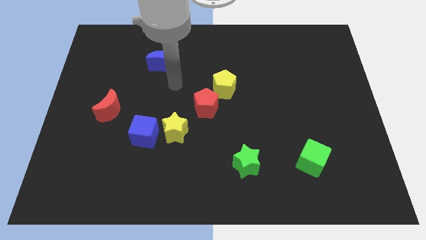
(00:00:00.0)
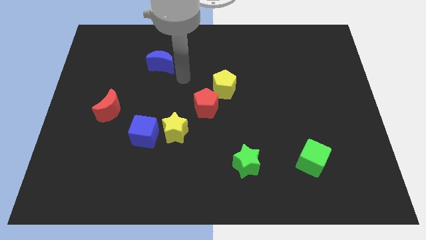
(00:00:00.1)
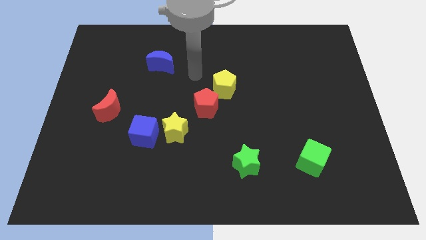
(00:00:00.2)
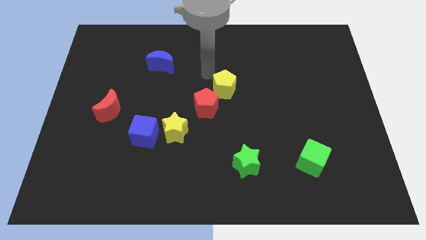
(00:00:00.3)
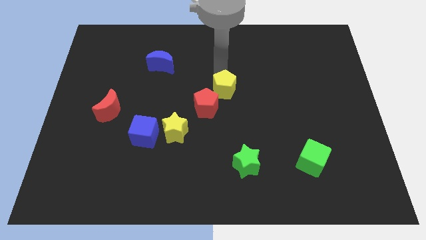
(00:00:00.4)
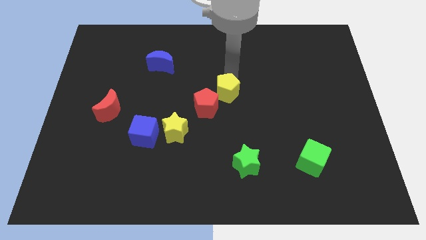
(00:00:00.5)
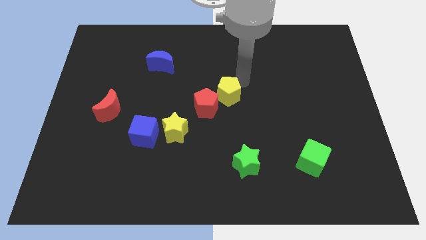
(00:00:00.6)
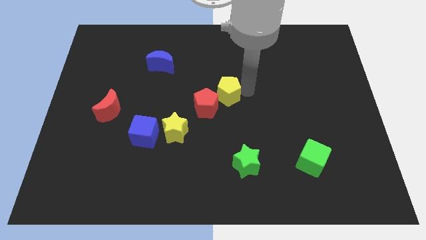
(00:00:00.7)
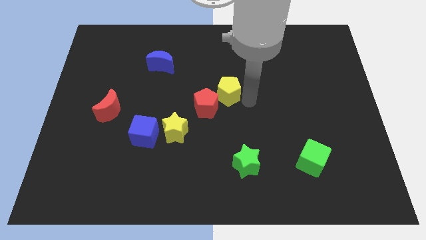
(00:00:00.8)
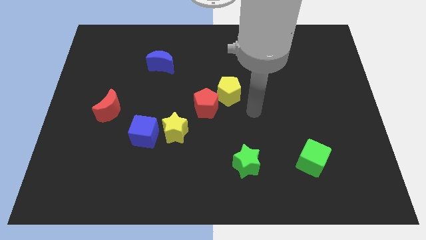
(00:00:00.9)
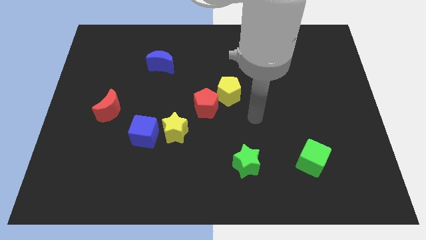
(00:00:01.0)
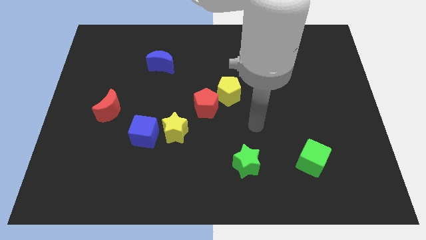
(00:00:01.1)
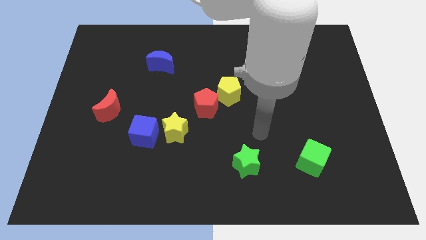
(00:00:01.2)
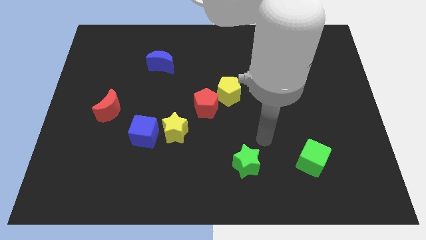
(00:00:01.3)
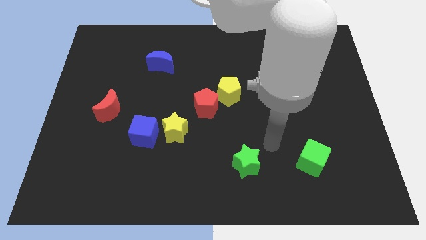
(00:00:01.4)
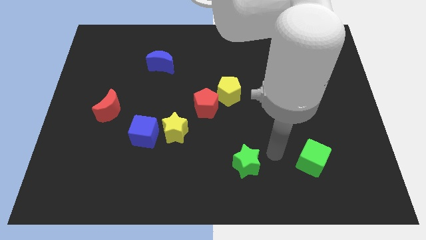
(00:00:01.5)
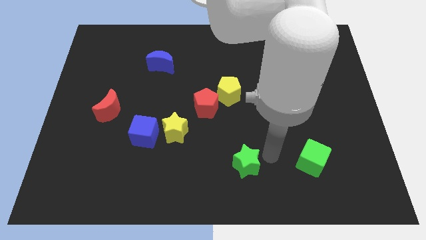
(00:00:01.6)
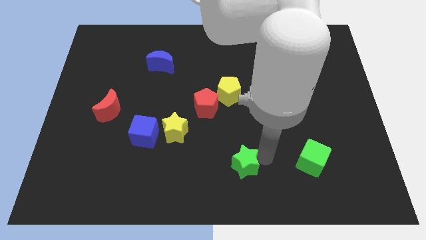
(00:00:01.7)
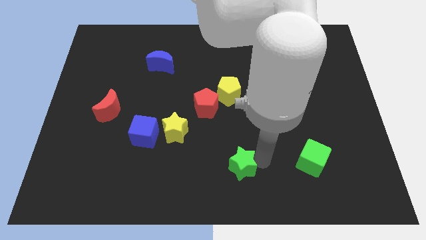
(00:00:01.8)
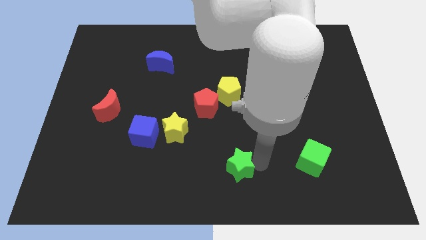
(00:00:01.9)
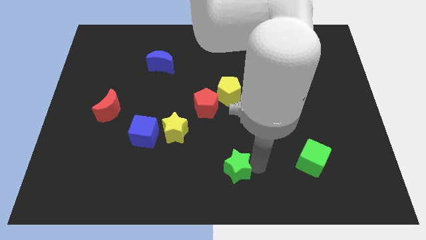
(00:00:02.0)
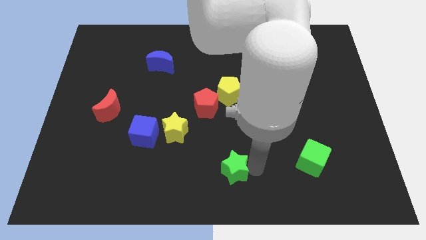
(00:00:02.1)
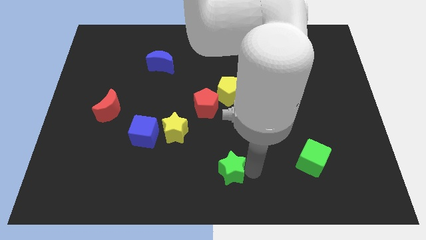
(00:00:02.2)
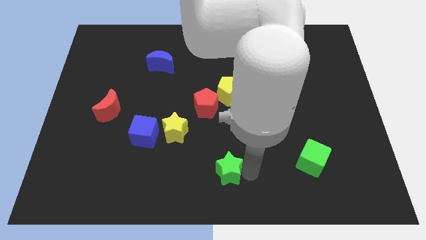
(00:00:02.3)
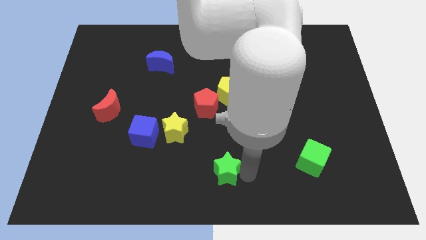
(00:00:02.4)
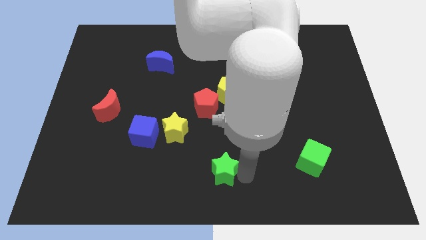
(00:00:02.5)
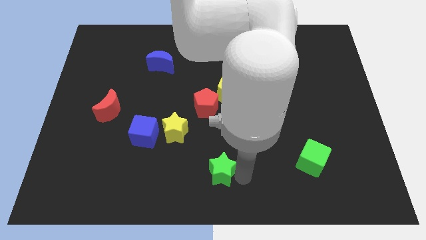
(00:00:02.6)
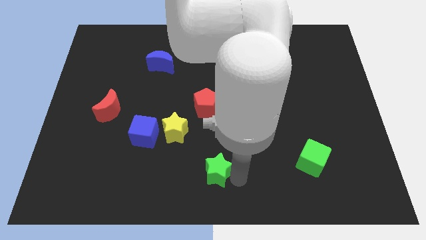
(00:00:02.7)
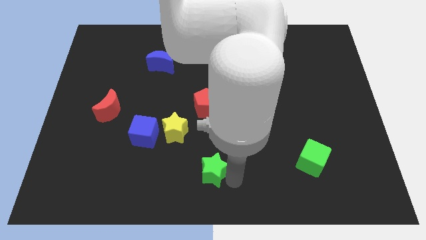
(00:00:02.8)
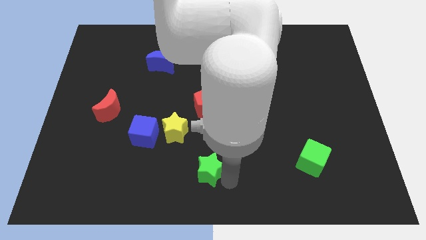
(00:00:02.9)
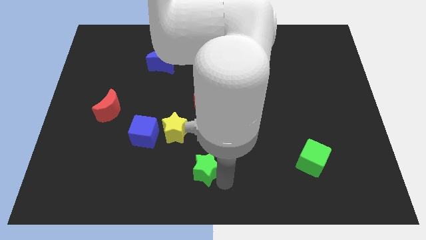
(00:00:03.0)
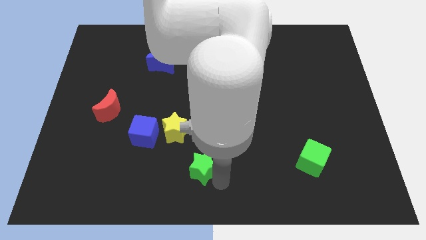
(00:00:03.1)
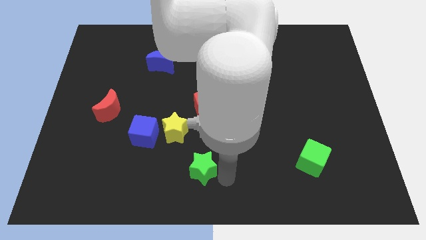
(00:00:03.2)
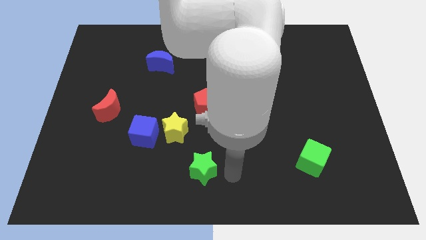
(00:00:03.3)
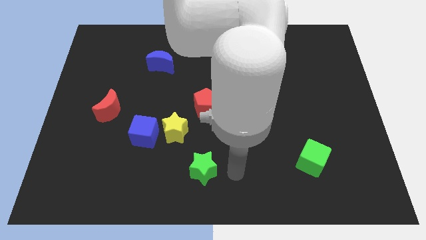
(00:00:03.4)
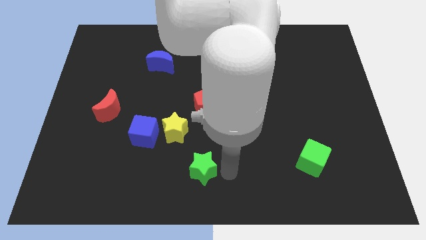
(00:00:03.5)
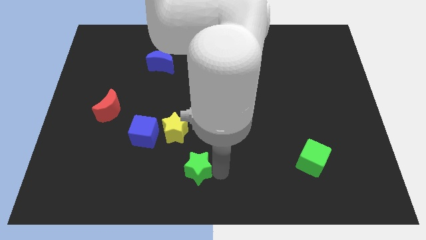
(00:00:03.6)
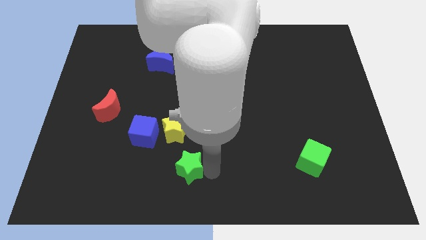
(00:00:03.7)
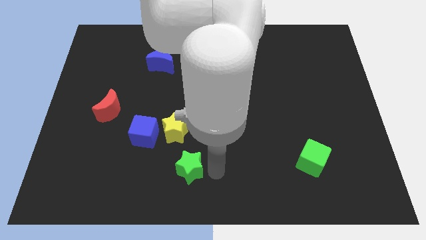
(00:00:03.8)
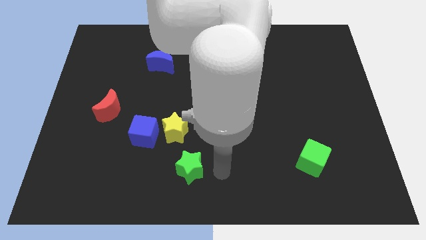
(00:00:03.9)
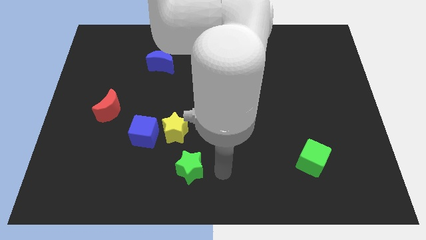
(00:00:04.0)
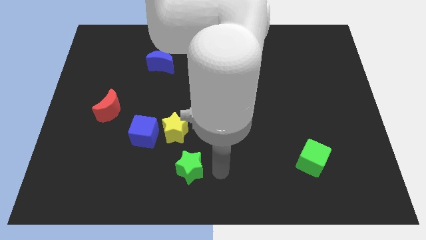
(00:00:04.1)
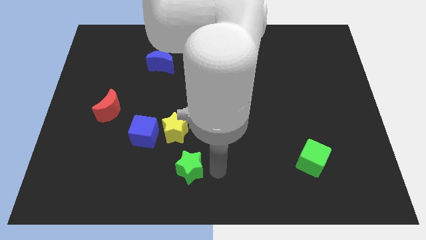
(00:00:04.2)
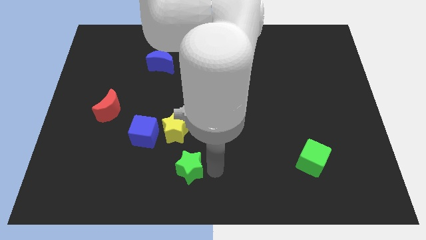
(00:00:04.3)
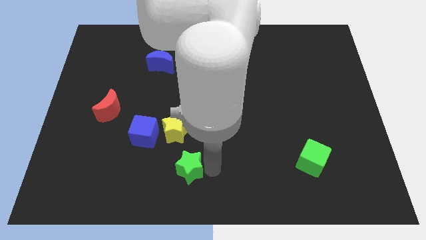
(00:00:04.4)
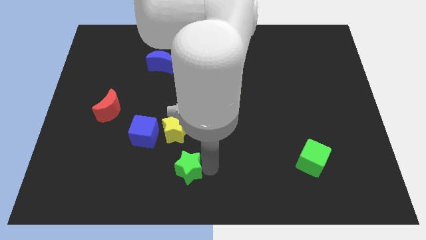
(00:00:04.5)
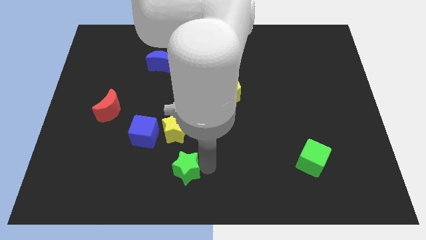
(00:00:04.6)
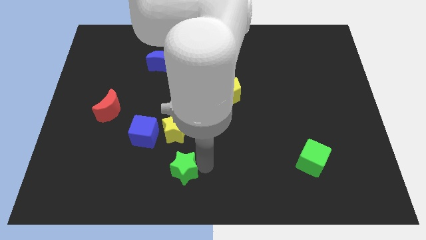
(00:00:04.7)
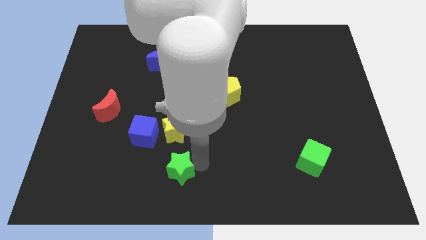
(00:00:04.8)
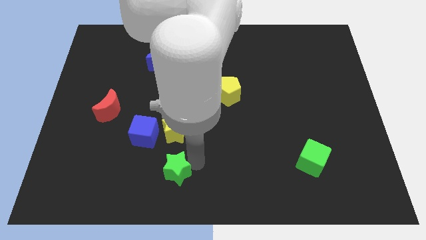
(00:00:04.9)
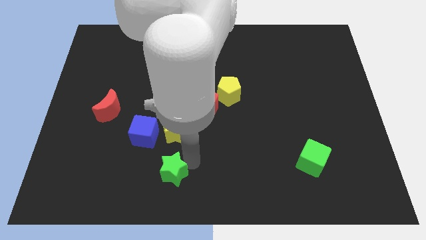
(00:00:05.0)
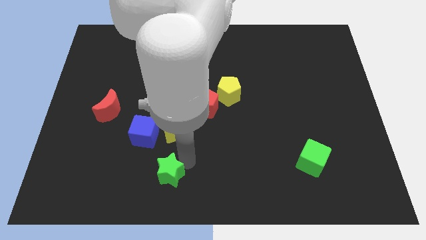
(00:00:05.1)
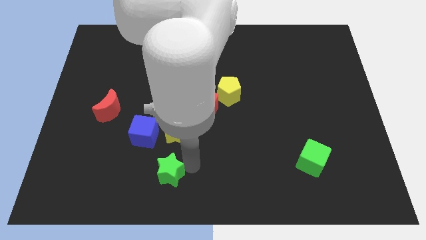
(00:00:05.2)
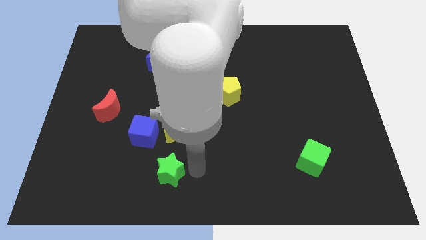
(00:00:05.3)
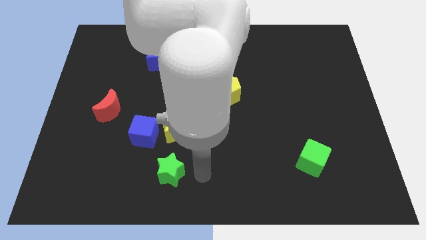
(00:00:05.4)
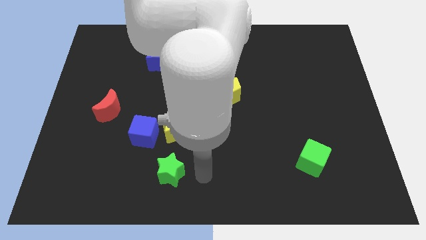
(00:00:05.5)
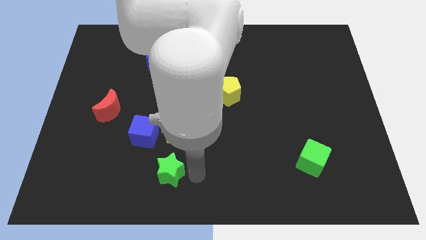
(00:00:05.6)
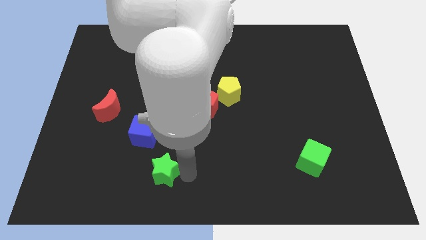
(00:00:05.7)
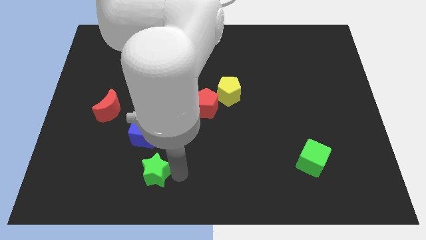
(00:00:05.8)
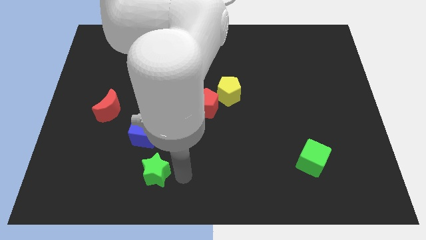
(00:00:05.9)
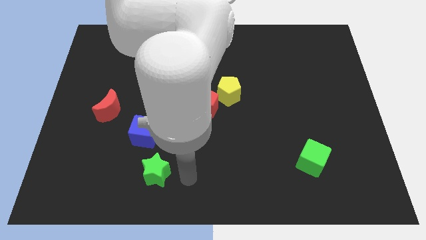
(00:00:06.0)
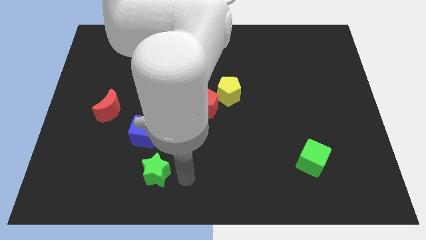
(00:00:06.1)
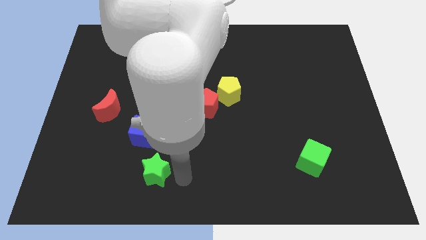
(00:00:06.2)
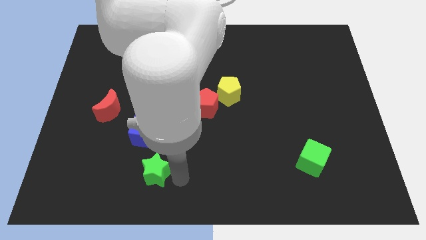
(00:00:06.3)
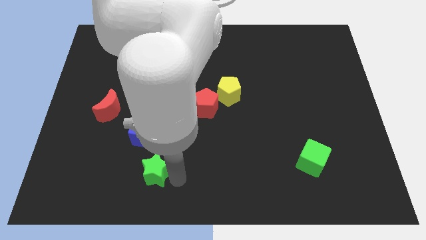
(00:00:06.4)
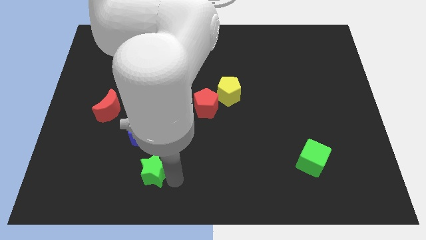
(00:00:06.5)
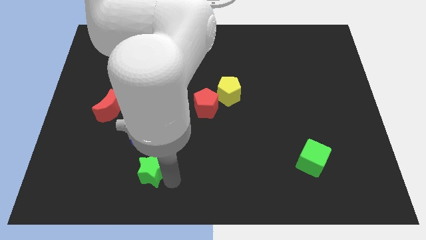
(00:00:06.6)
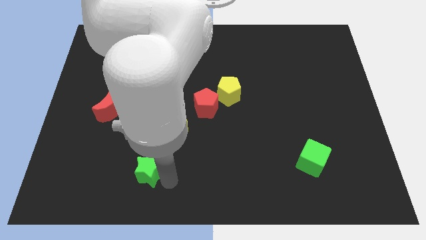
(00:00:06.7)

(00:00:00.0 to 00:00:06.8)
move the green star left

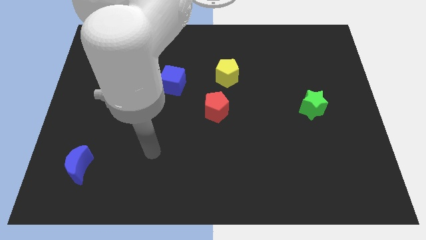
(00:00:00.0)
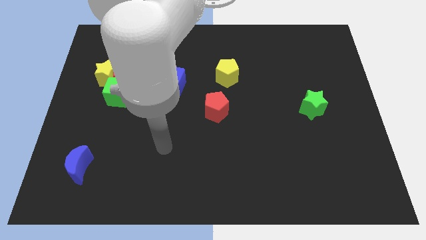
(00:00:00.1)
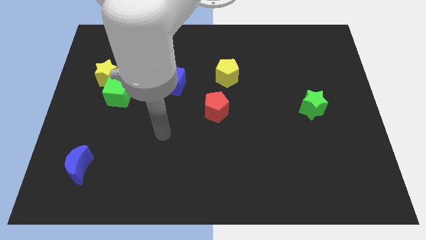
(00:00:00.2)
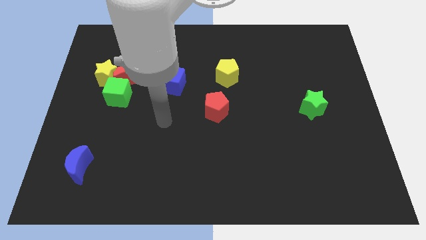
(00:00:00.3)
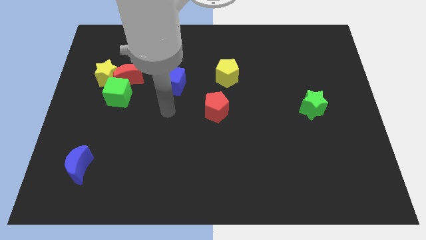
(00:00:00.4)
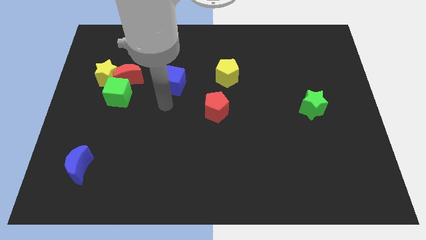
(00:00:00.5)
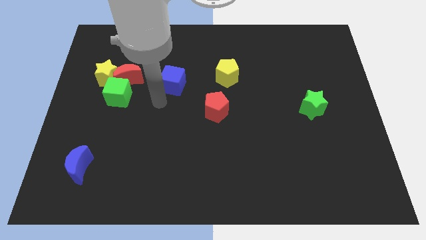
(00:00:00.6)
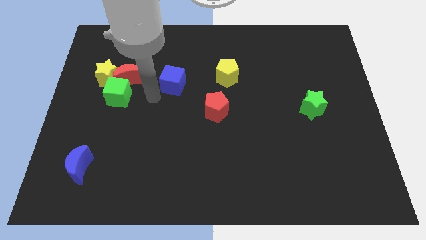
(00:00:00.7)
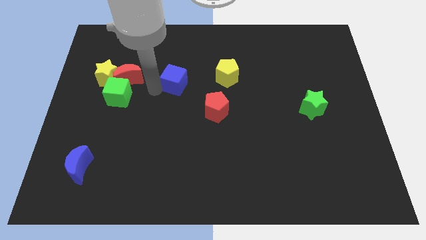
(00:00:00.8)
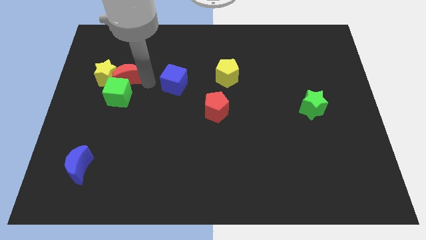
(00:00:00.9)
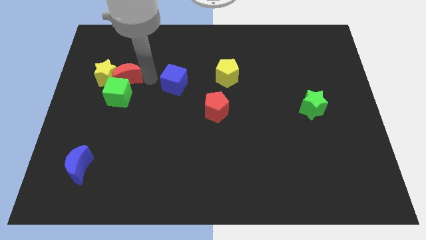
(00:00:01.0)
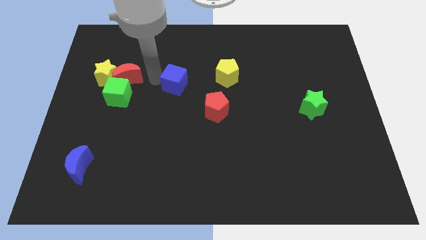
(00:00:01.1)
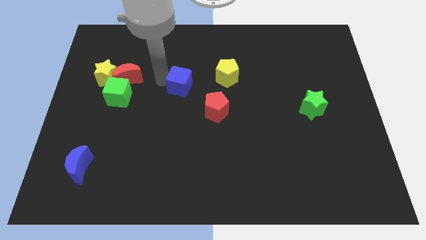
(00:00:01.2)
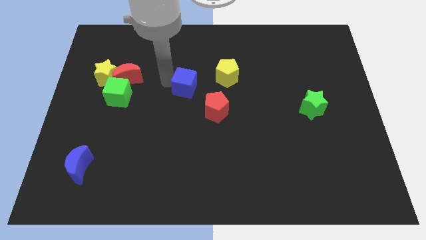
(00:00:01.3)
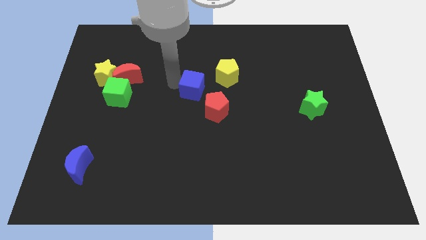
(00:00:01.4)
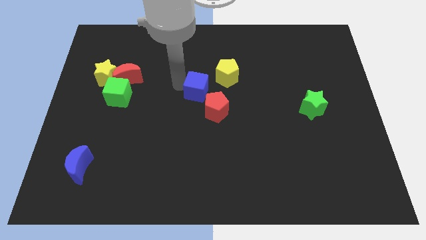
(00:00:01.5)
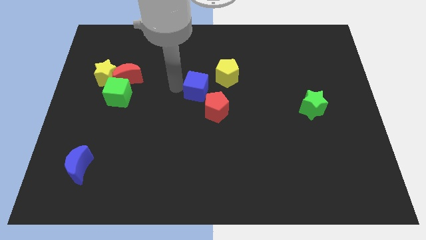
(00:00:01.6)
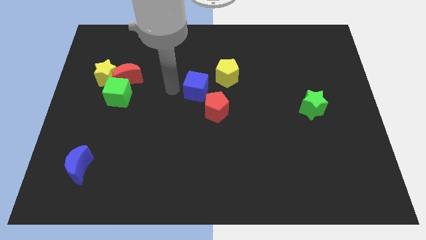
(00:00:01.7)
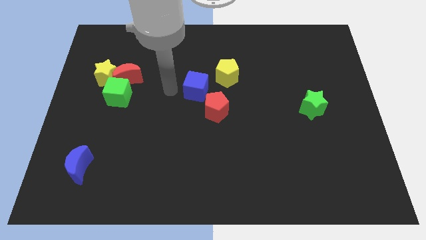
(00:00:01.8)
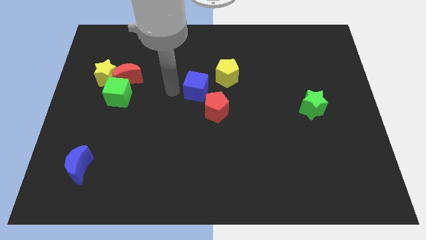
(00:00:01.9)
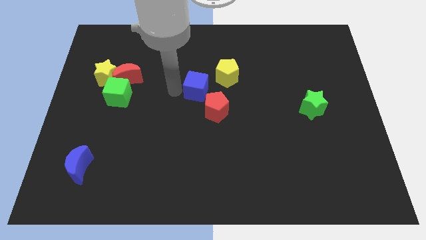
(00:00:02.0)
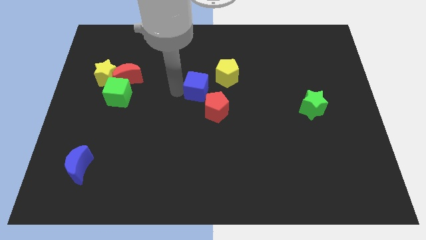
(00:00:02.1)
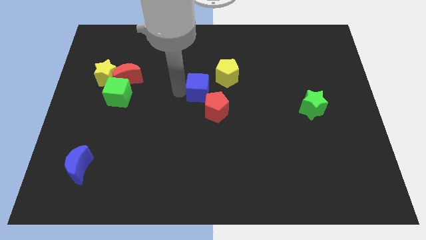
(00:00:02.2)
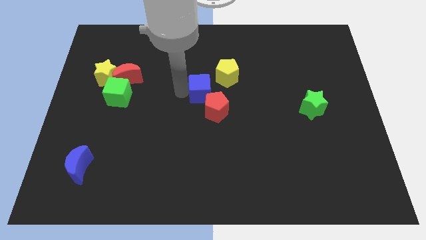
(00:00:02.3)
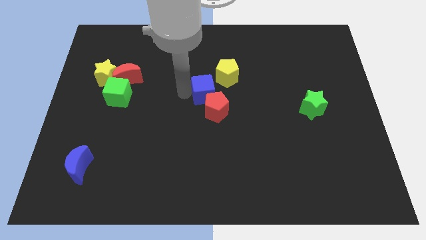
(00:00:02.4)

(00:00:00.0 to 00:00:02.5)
move the blue cube to the right a little bit
